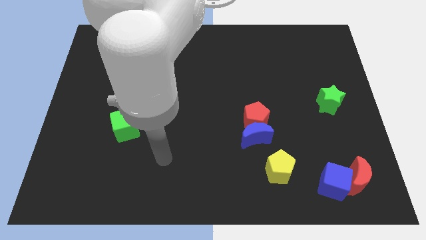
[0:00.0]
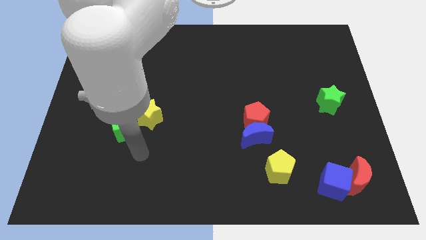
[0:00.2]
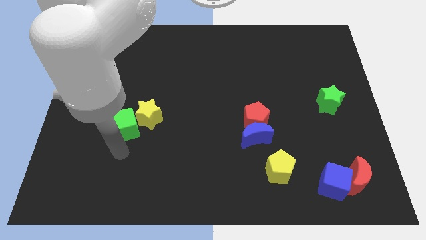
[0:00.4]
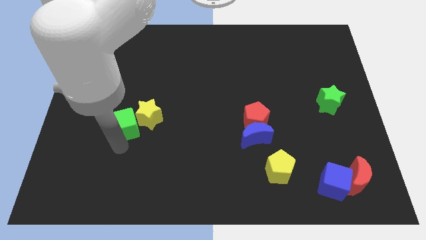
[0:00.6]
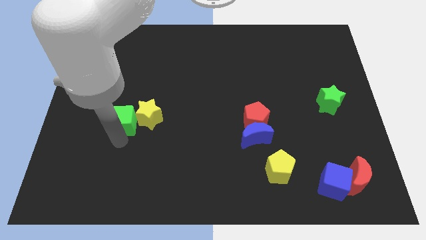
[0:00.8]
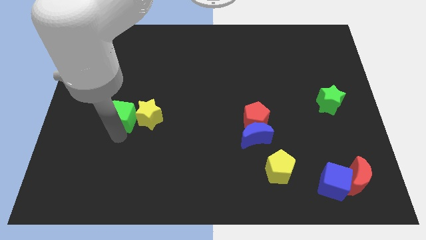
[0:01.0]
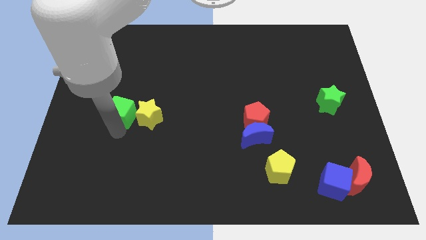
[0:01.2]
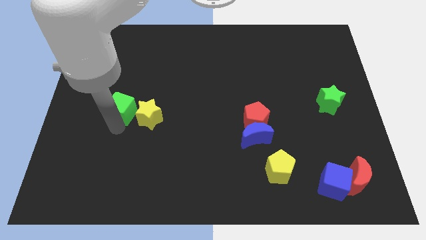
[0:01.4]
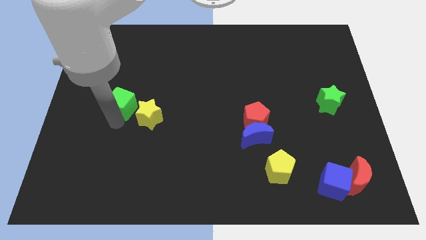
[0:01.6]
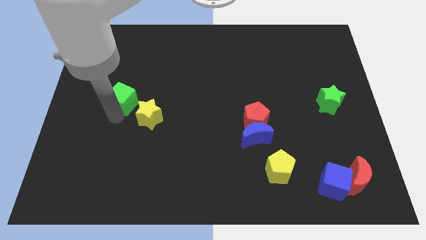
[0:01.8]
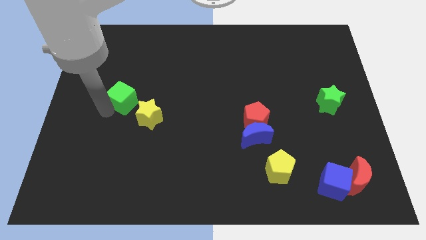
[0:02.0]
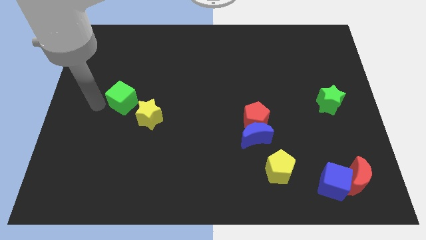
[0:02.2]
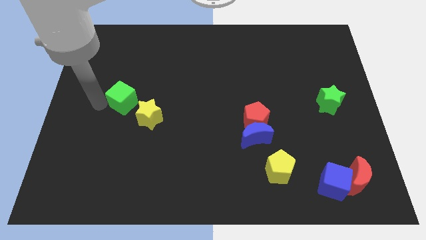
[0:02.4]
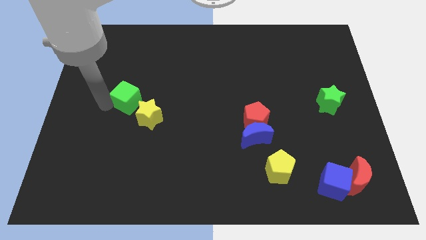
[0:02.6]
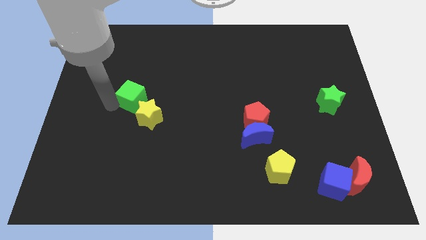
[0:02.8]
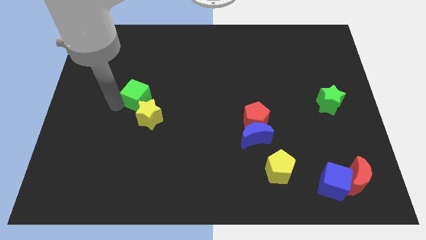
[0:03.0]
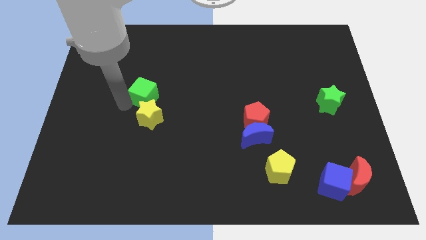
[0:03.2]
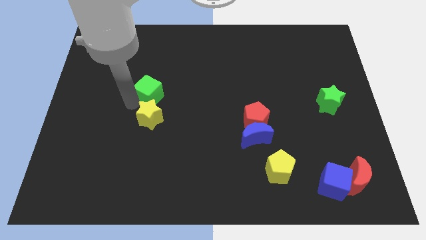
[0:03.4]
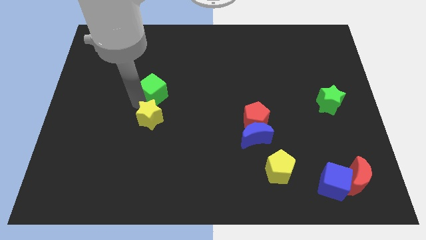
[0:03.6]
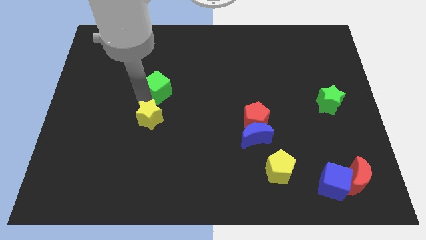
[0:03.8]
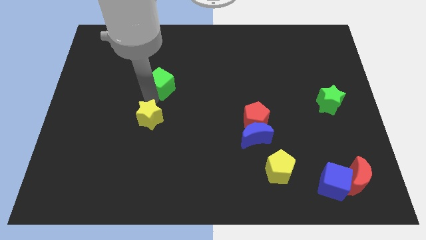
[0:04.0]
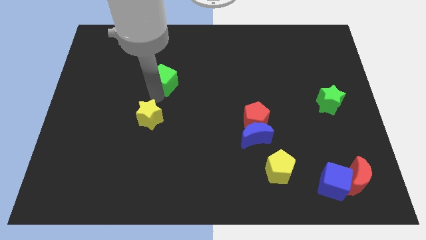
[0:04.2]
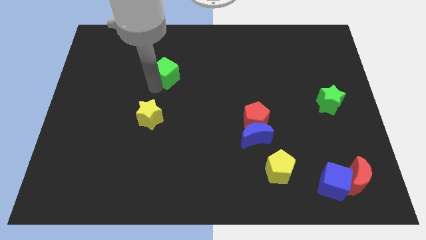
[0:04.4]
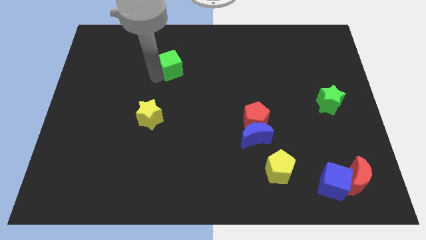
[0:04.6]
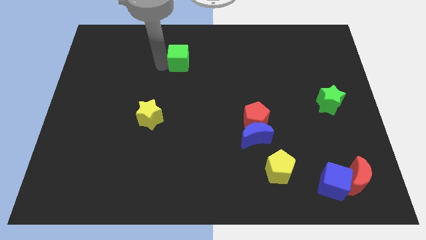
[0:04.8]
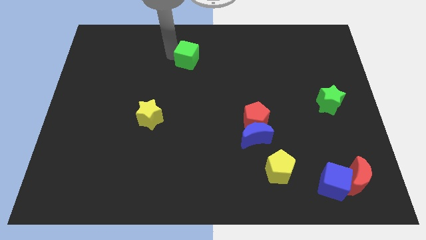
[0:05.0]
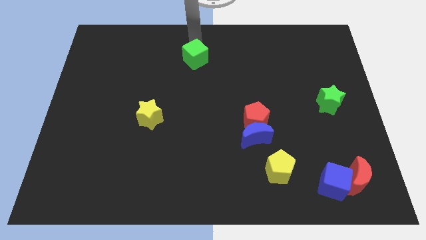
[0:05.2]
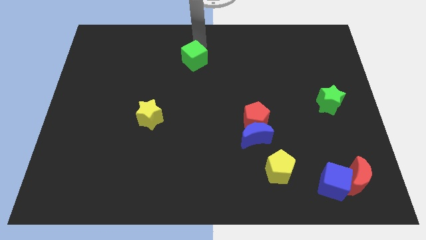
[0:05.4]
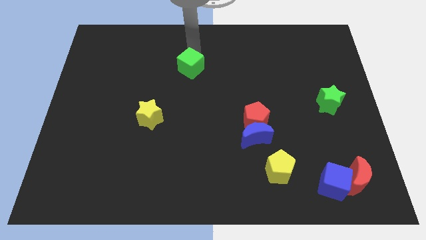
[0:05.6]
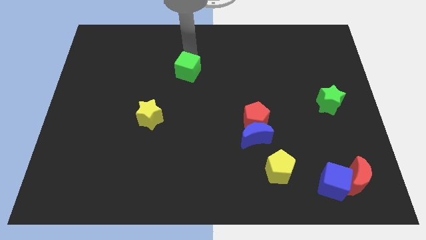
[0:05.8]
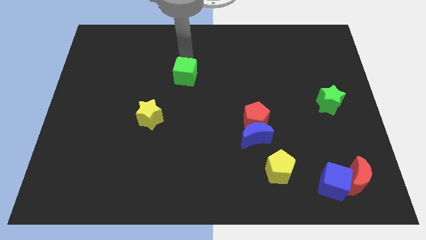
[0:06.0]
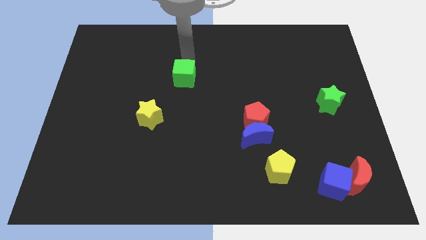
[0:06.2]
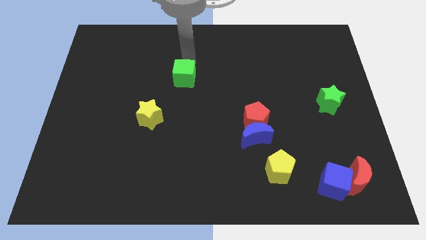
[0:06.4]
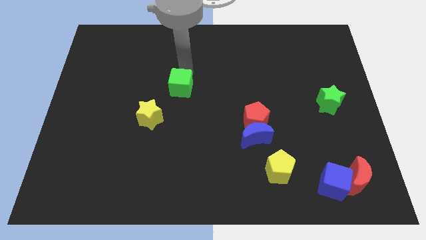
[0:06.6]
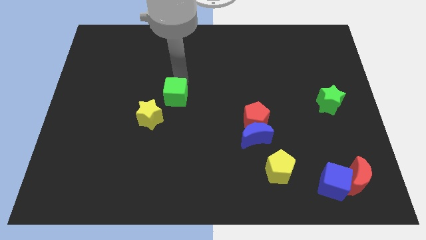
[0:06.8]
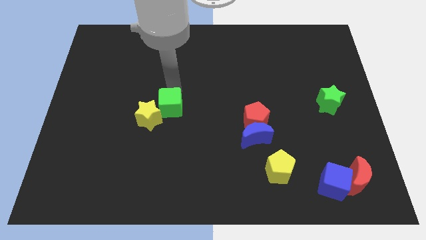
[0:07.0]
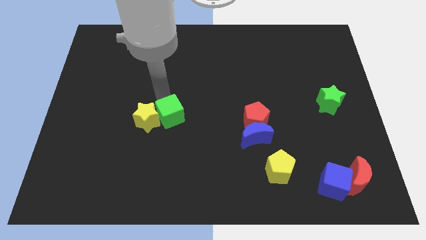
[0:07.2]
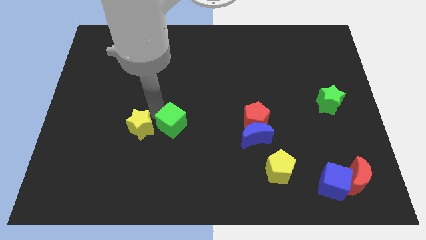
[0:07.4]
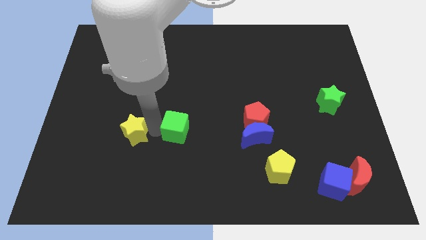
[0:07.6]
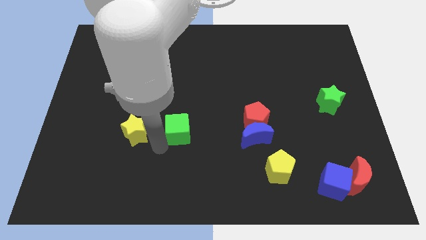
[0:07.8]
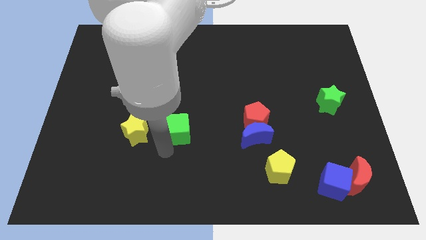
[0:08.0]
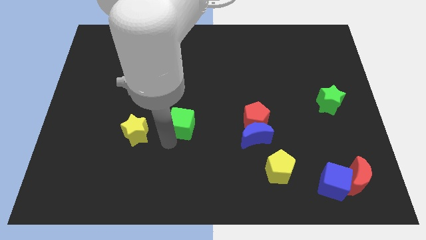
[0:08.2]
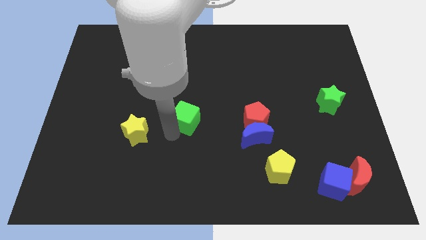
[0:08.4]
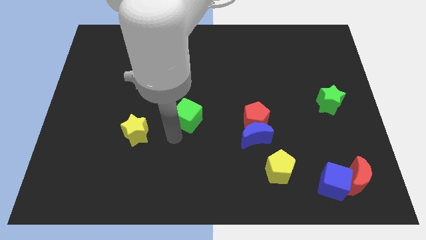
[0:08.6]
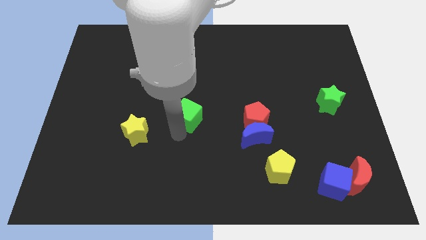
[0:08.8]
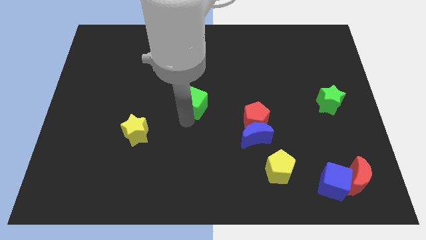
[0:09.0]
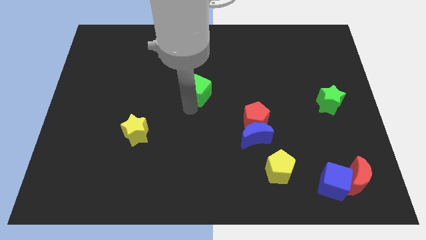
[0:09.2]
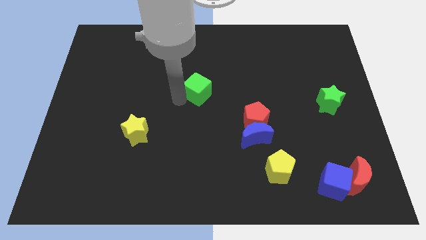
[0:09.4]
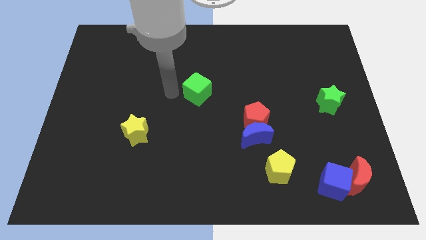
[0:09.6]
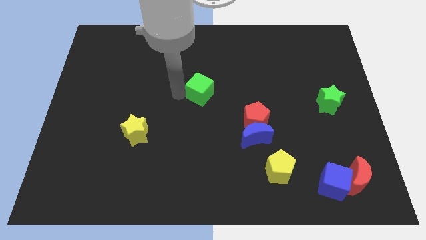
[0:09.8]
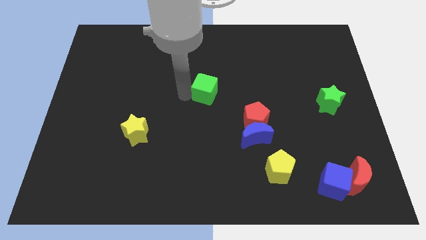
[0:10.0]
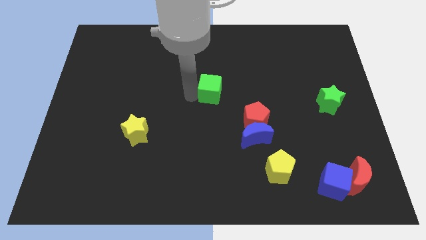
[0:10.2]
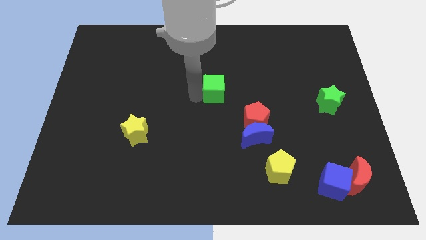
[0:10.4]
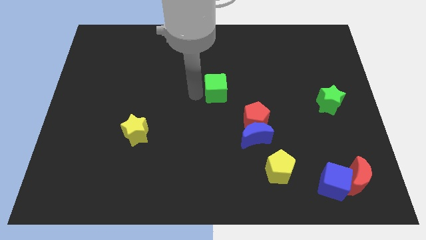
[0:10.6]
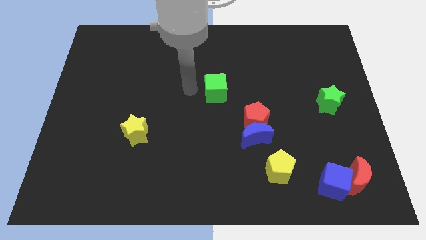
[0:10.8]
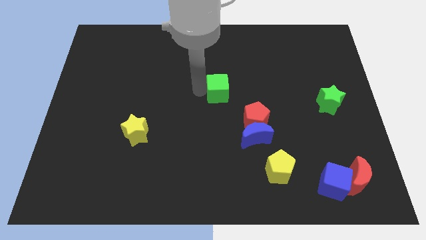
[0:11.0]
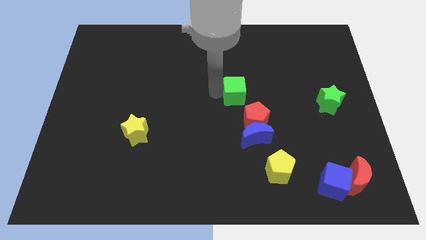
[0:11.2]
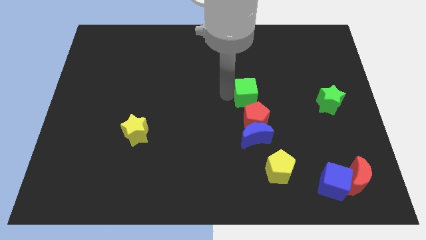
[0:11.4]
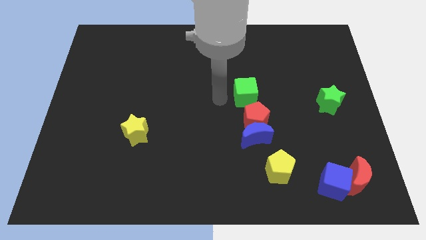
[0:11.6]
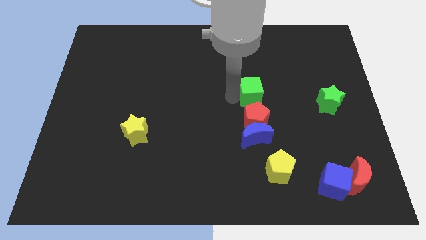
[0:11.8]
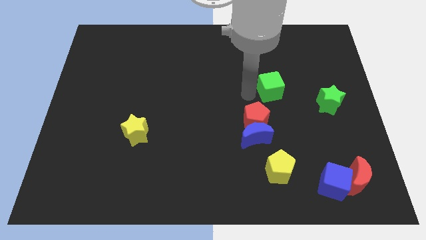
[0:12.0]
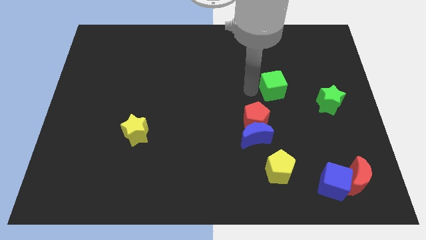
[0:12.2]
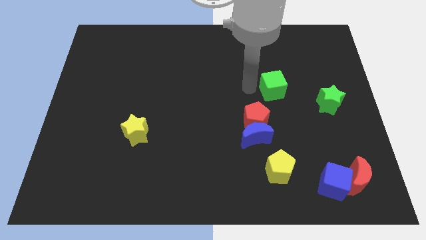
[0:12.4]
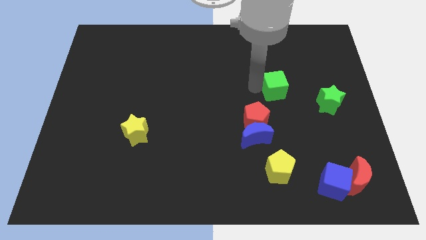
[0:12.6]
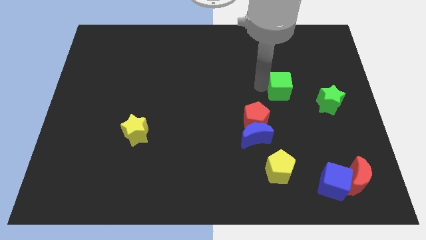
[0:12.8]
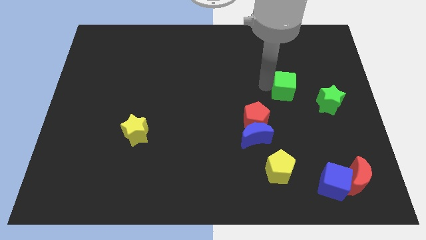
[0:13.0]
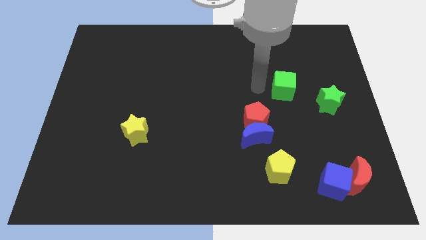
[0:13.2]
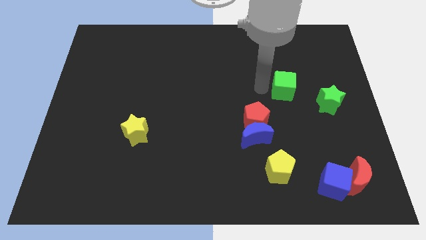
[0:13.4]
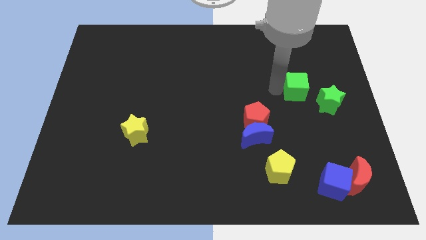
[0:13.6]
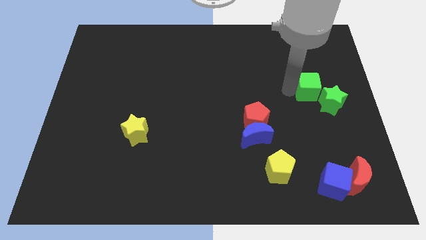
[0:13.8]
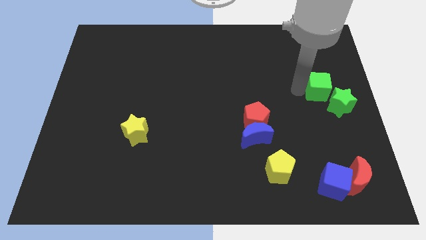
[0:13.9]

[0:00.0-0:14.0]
move the green cube to the center right
